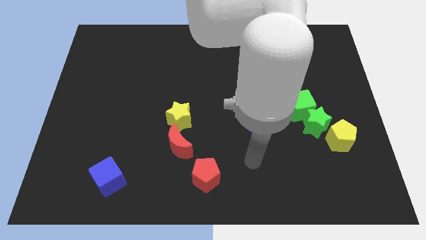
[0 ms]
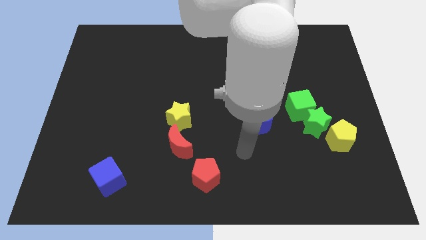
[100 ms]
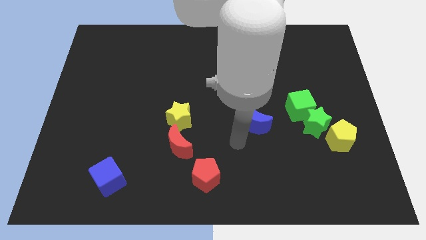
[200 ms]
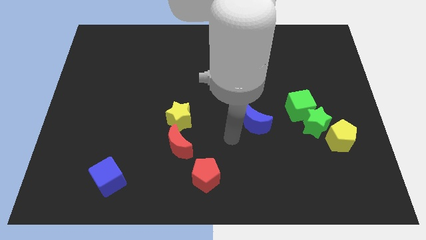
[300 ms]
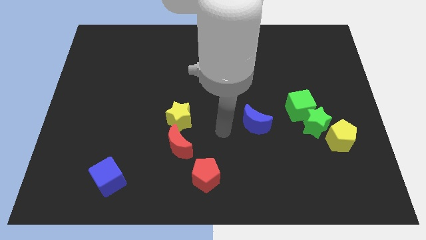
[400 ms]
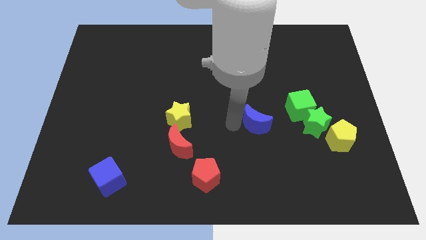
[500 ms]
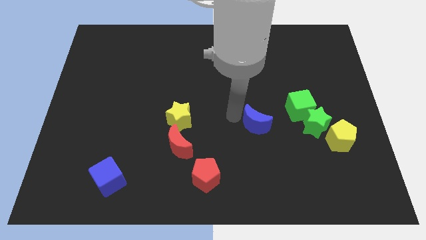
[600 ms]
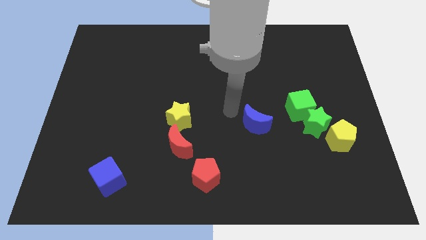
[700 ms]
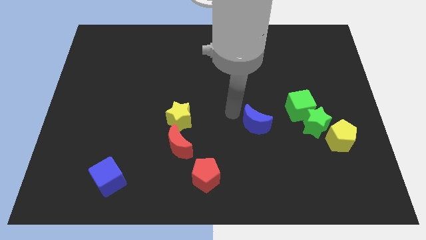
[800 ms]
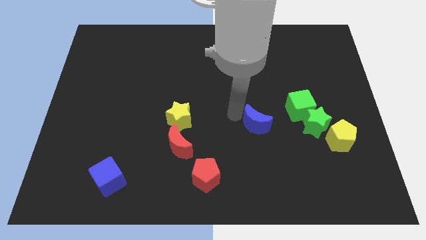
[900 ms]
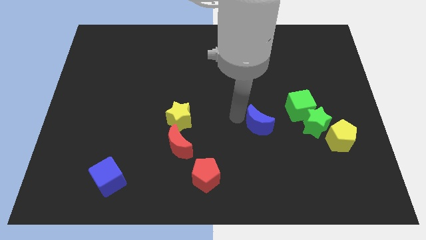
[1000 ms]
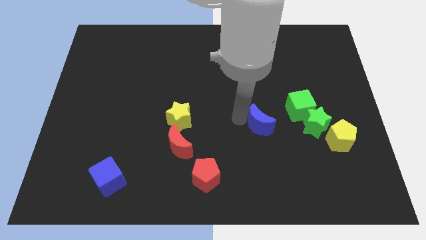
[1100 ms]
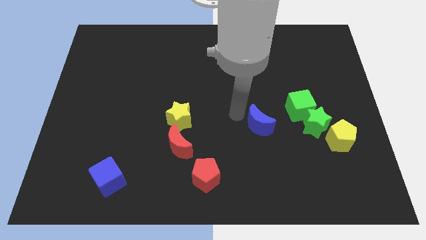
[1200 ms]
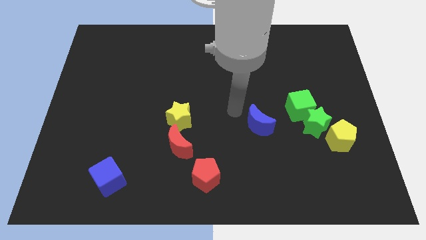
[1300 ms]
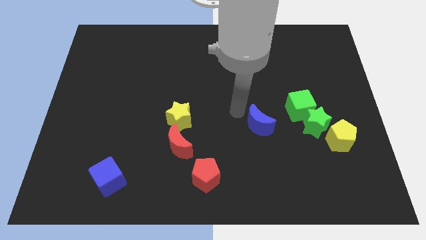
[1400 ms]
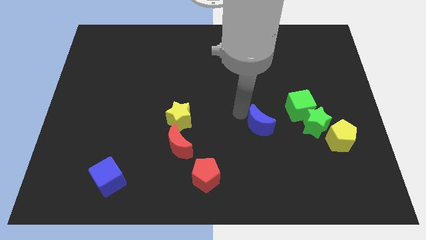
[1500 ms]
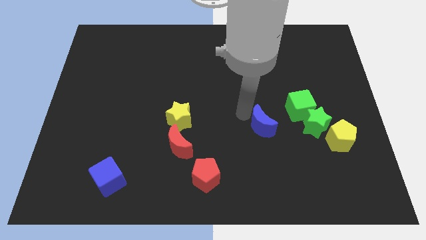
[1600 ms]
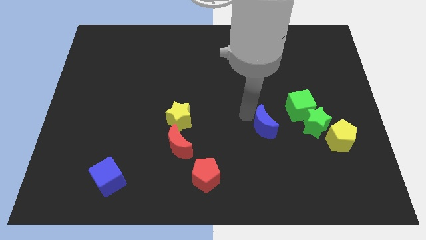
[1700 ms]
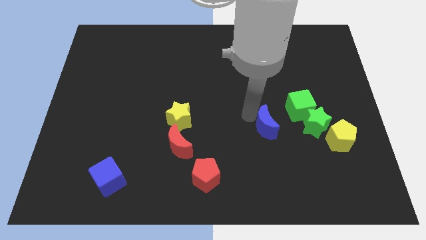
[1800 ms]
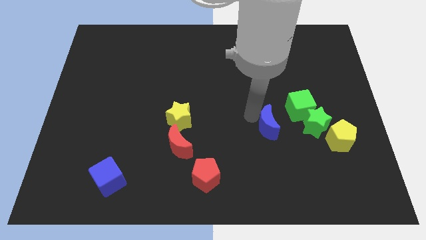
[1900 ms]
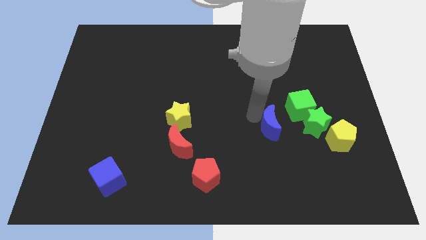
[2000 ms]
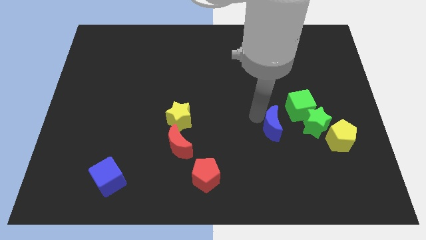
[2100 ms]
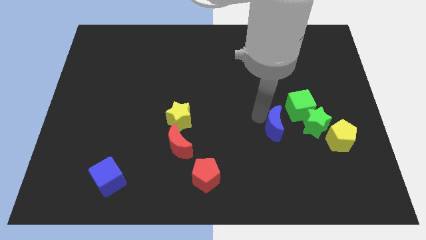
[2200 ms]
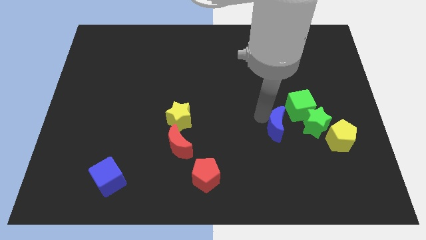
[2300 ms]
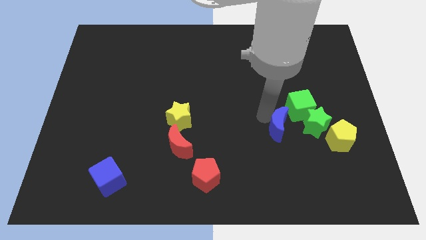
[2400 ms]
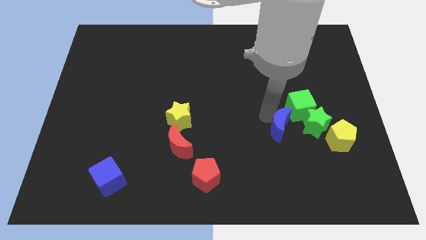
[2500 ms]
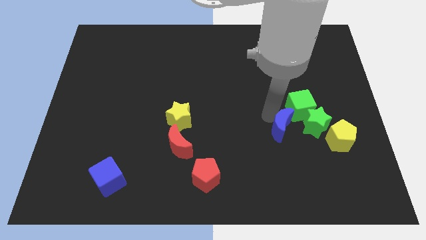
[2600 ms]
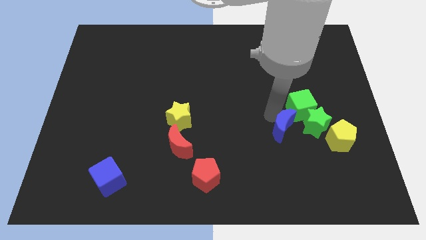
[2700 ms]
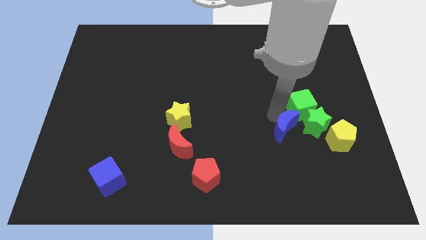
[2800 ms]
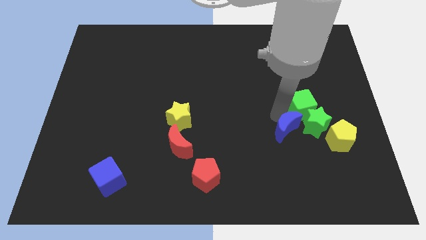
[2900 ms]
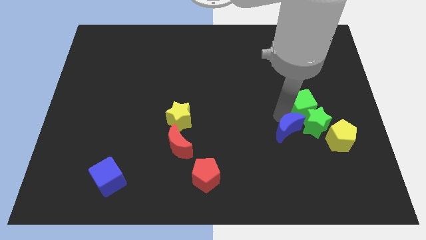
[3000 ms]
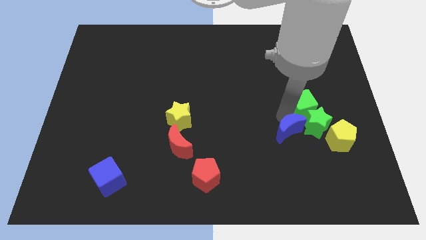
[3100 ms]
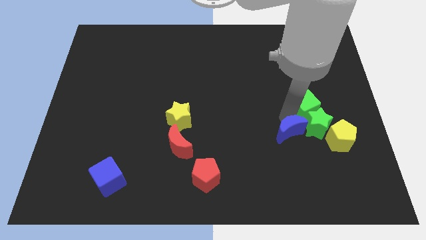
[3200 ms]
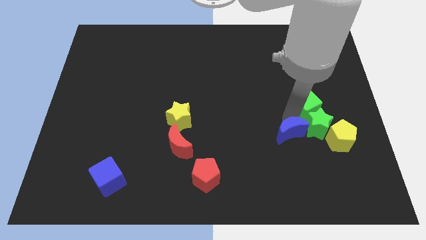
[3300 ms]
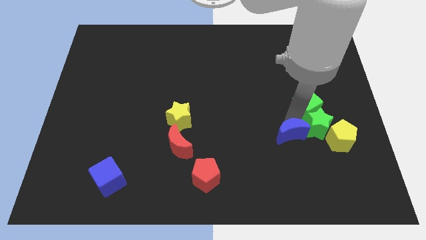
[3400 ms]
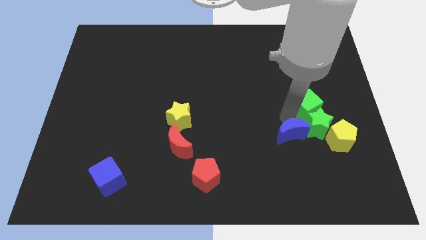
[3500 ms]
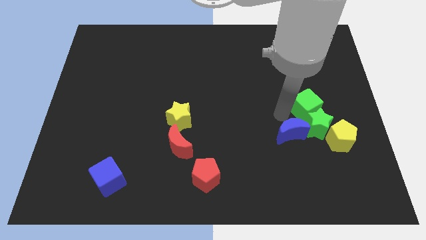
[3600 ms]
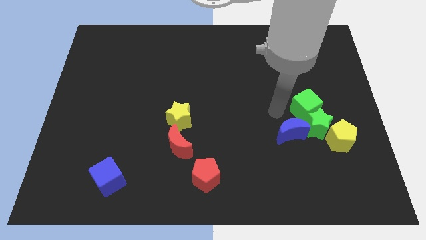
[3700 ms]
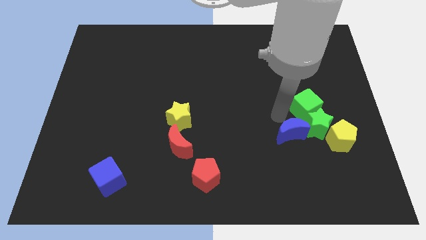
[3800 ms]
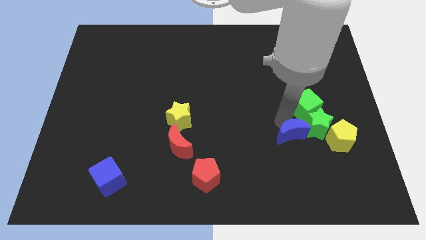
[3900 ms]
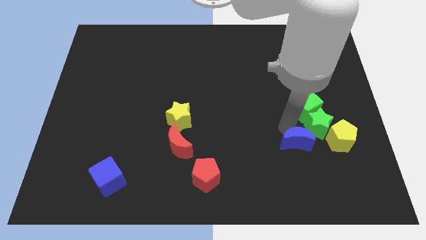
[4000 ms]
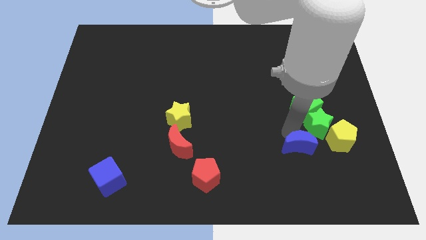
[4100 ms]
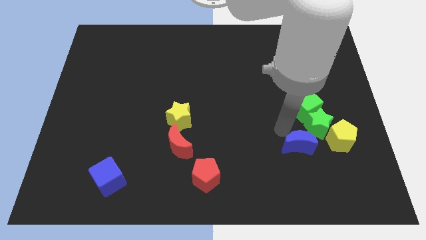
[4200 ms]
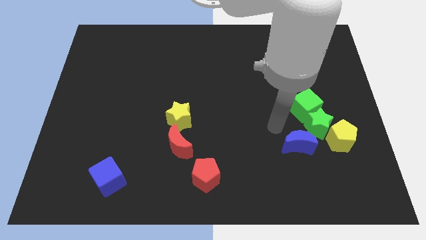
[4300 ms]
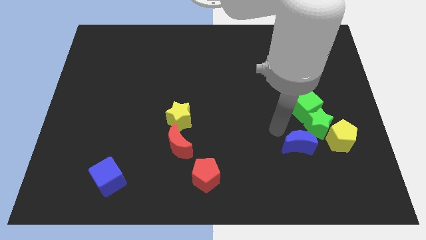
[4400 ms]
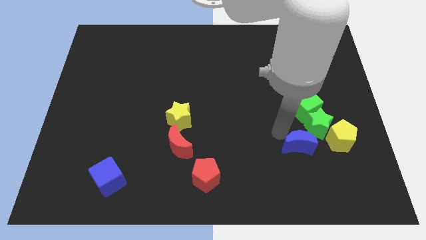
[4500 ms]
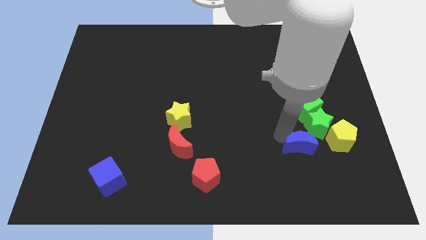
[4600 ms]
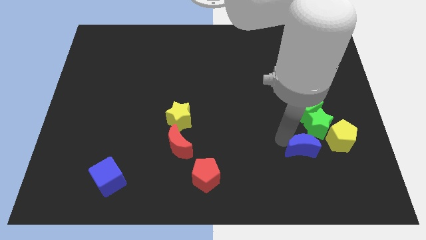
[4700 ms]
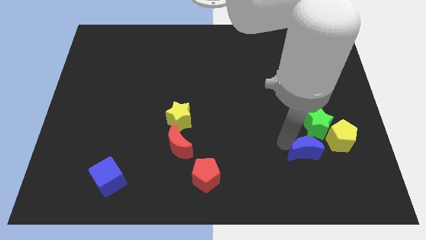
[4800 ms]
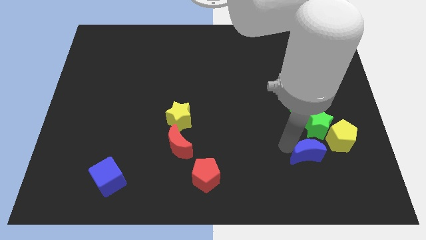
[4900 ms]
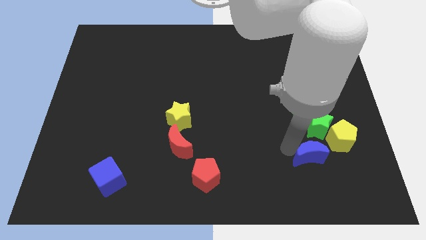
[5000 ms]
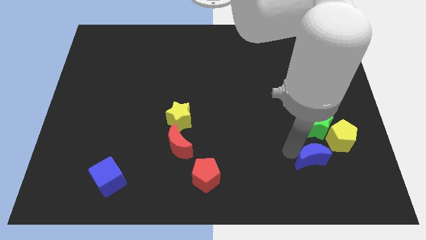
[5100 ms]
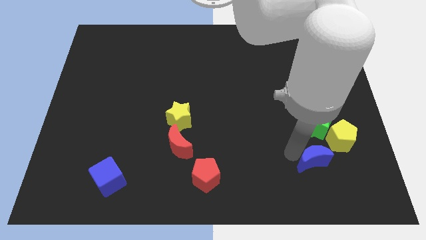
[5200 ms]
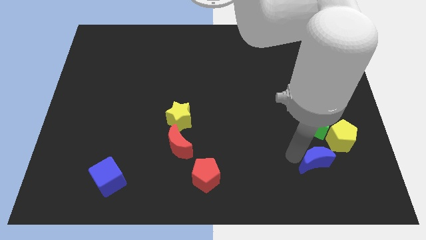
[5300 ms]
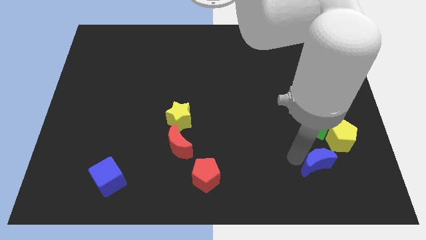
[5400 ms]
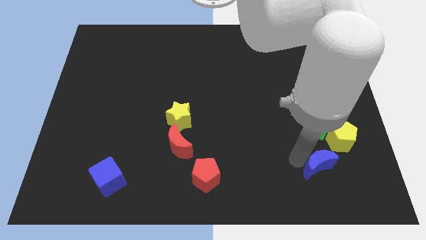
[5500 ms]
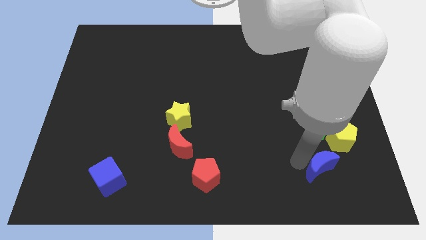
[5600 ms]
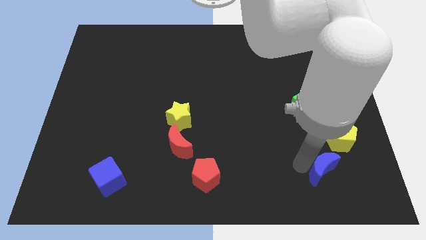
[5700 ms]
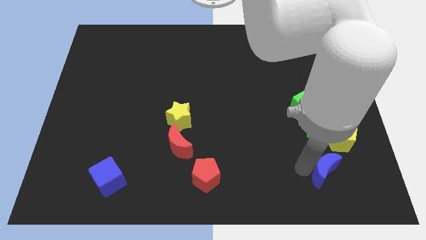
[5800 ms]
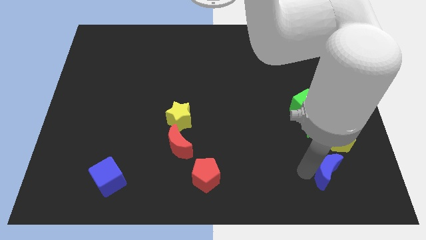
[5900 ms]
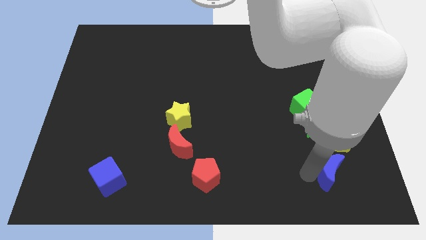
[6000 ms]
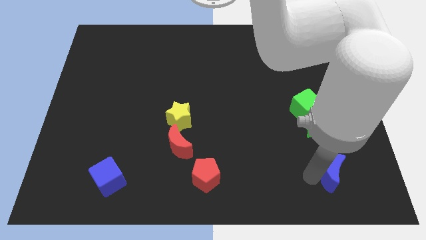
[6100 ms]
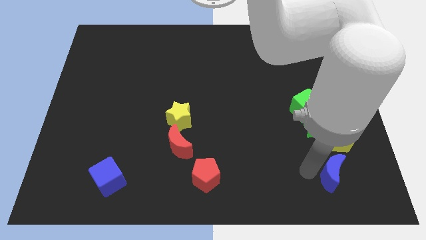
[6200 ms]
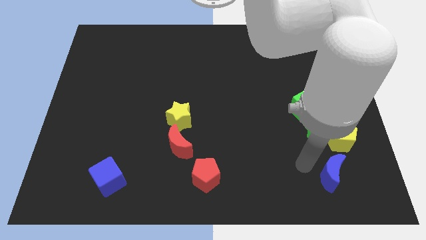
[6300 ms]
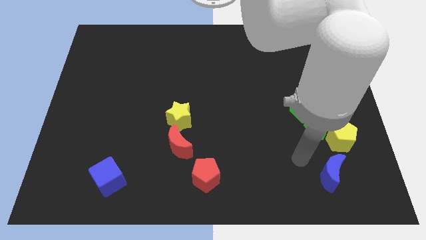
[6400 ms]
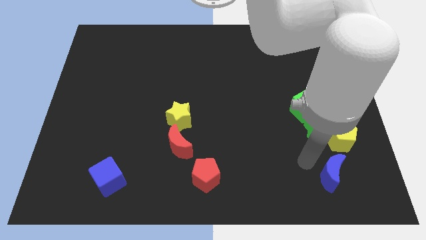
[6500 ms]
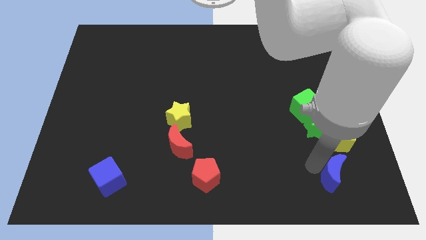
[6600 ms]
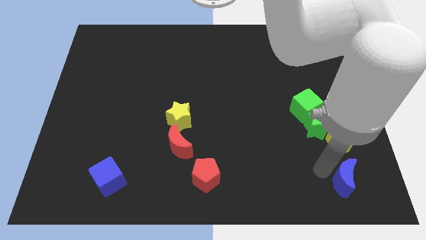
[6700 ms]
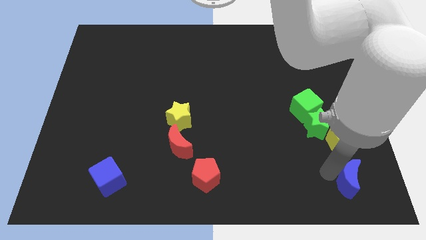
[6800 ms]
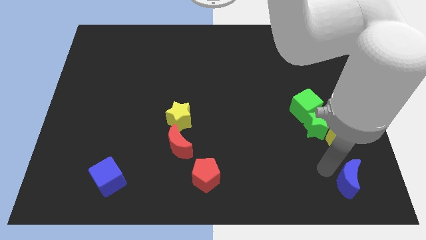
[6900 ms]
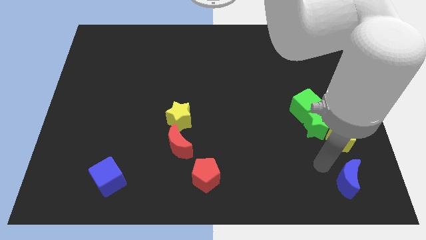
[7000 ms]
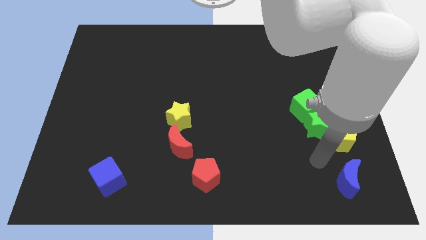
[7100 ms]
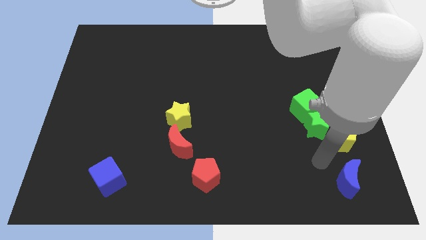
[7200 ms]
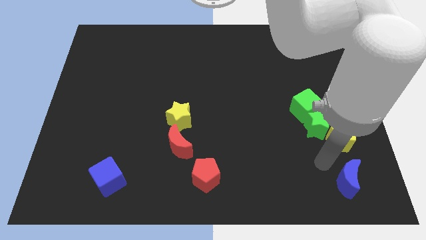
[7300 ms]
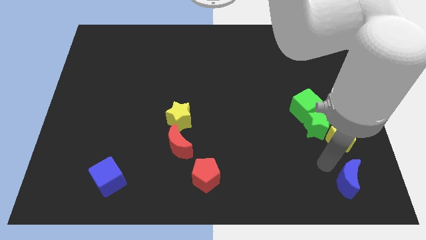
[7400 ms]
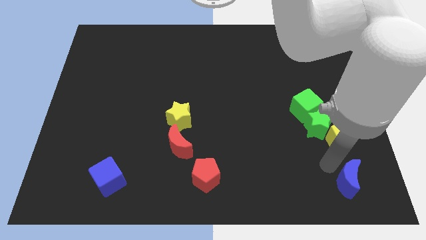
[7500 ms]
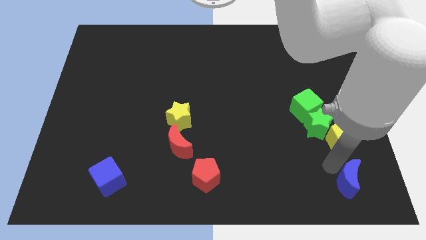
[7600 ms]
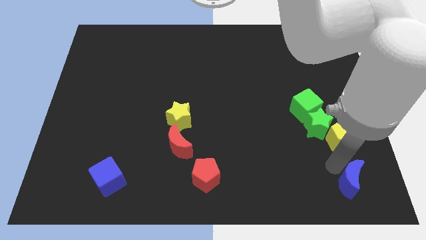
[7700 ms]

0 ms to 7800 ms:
put the blue moon to the bottom right corner
